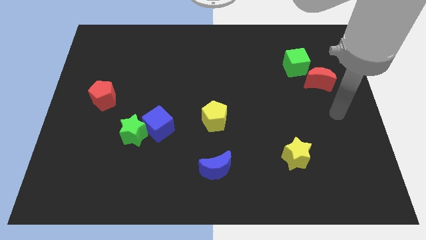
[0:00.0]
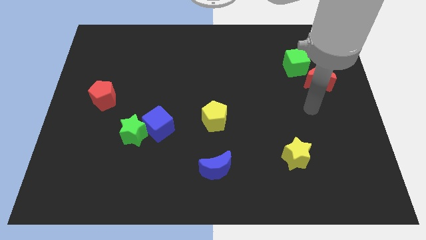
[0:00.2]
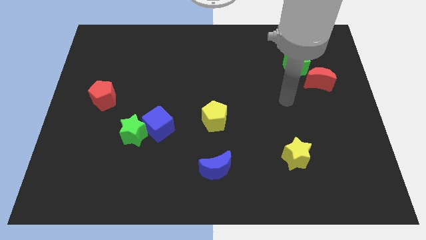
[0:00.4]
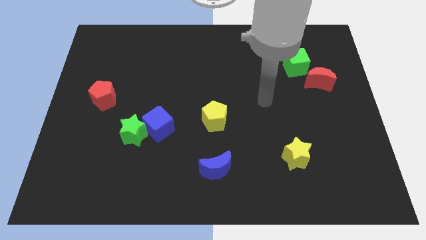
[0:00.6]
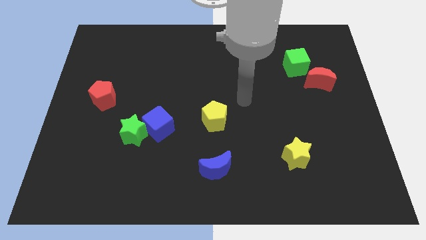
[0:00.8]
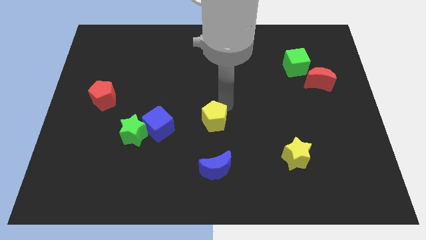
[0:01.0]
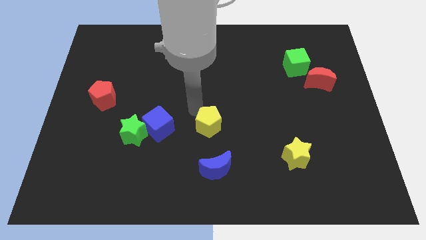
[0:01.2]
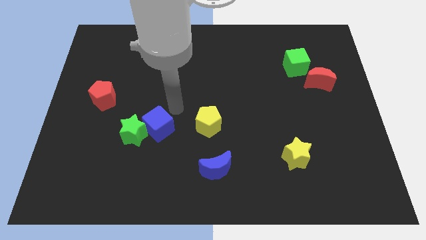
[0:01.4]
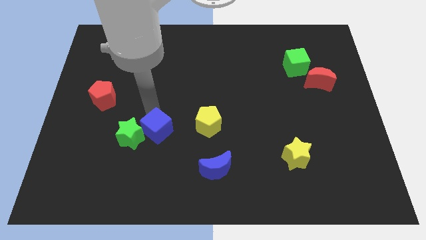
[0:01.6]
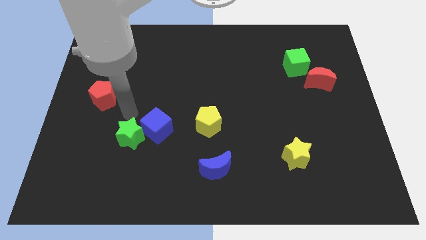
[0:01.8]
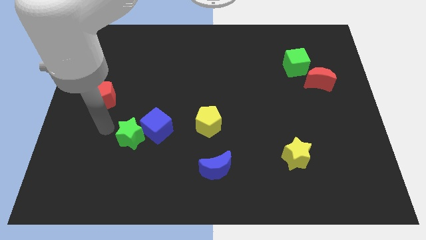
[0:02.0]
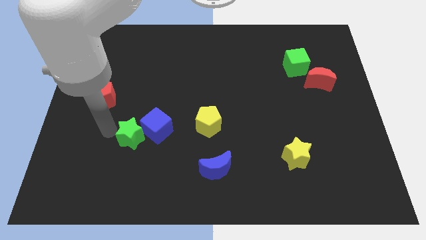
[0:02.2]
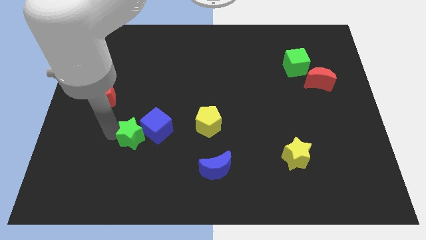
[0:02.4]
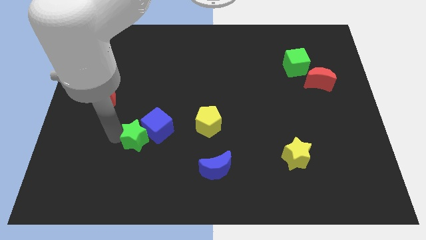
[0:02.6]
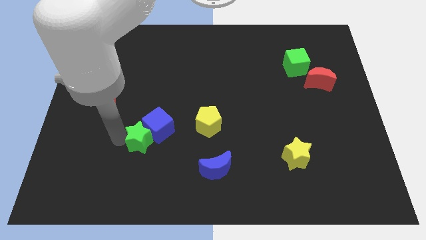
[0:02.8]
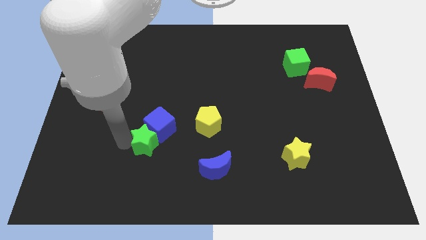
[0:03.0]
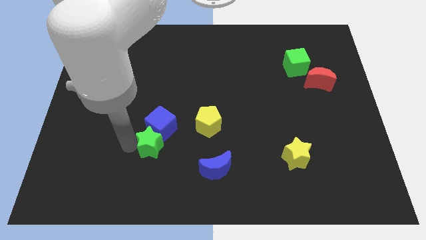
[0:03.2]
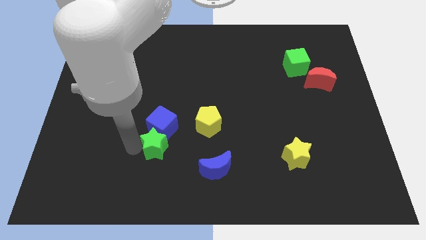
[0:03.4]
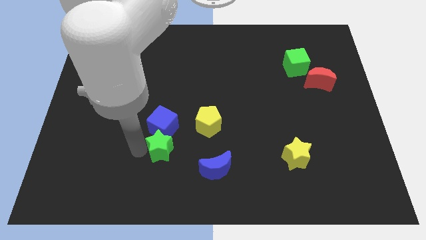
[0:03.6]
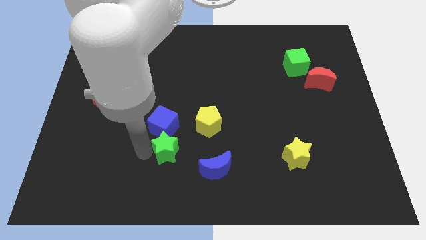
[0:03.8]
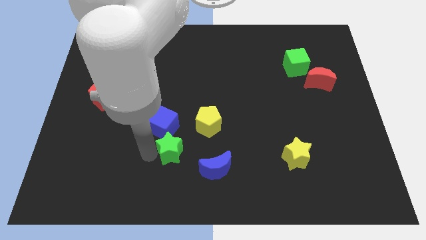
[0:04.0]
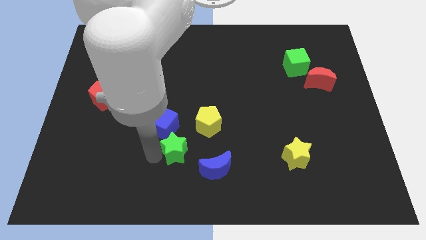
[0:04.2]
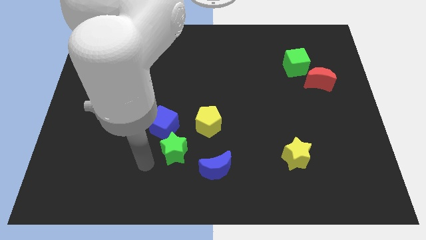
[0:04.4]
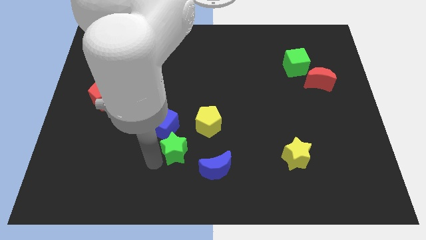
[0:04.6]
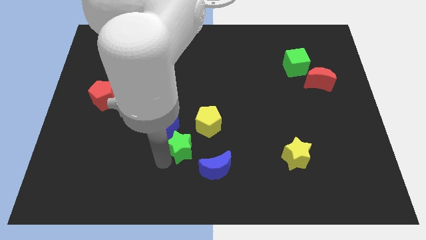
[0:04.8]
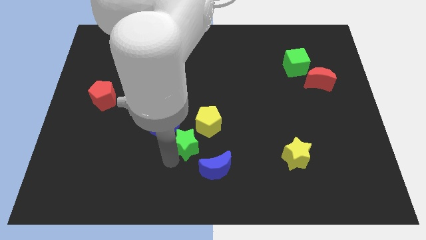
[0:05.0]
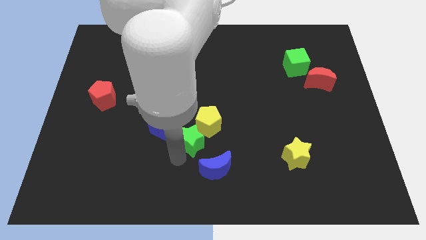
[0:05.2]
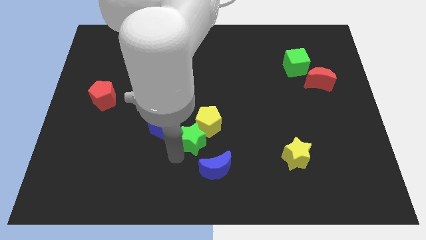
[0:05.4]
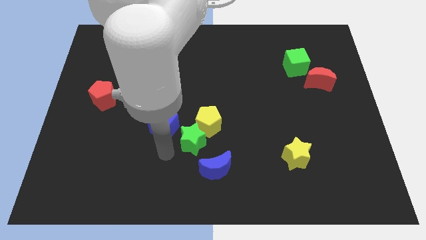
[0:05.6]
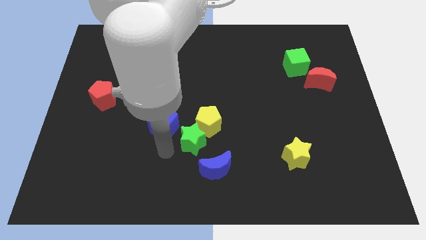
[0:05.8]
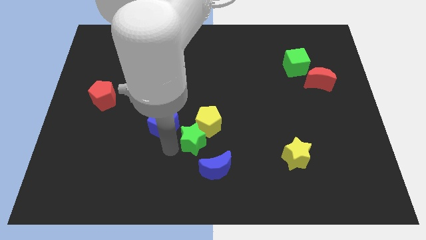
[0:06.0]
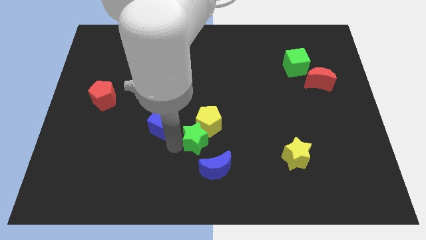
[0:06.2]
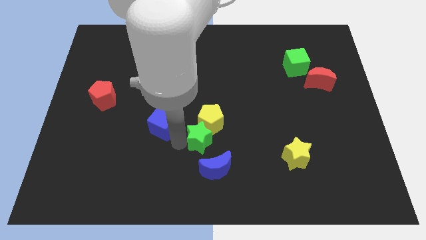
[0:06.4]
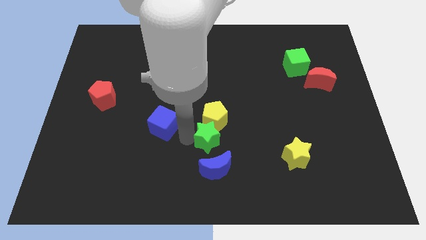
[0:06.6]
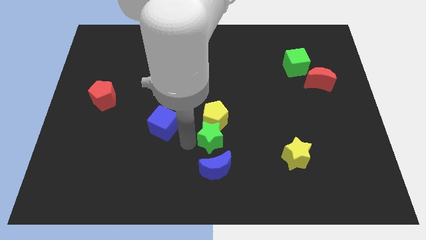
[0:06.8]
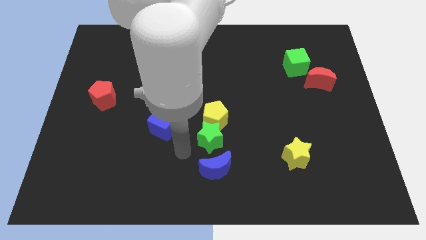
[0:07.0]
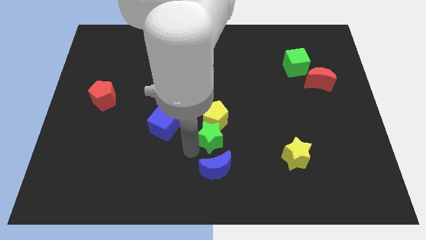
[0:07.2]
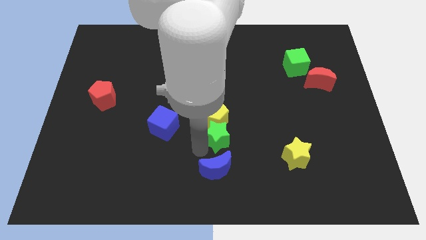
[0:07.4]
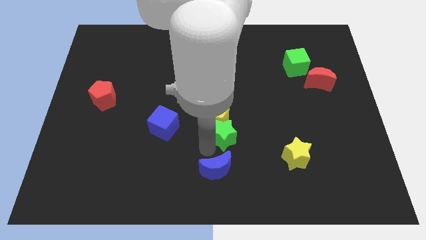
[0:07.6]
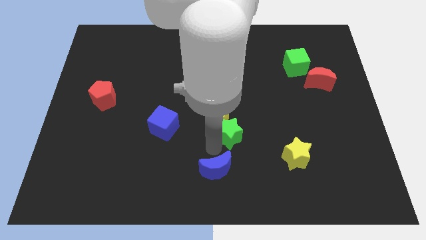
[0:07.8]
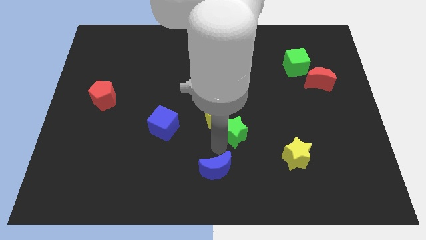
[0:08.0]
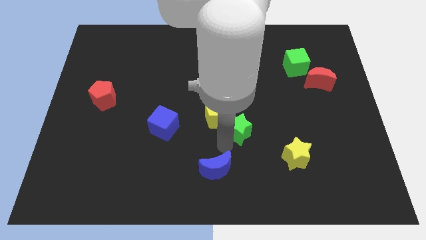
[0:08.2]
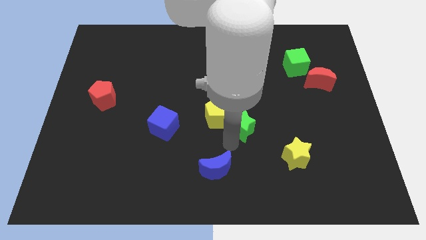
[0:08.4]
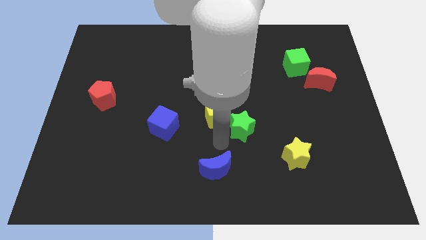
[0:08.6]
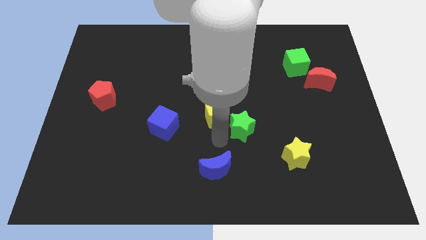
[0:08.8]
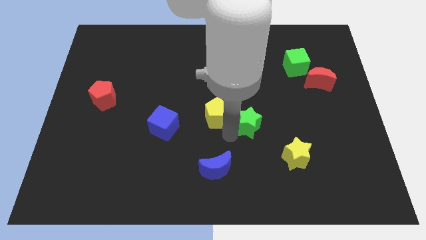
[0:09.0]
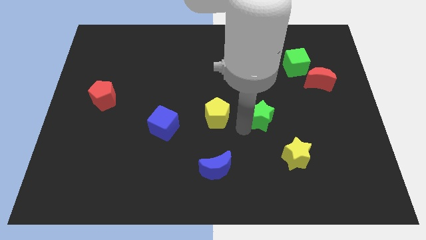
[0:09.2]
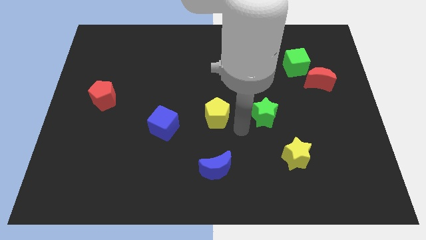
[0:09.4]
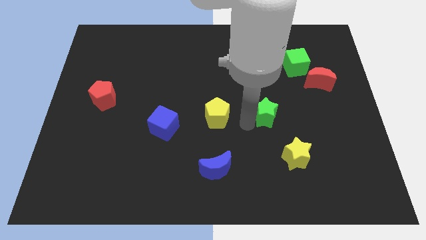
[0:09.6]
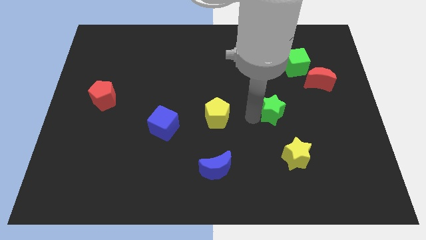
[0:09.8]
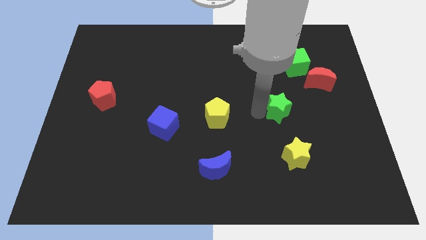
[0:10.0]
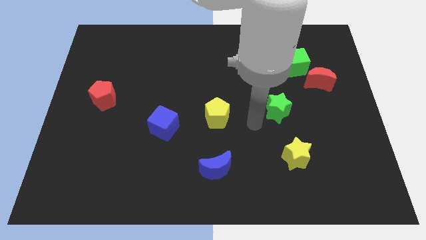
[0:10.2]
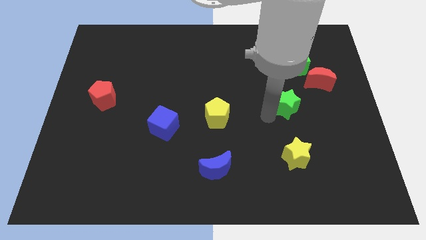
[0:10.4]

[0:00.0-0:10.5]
push the green star to the bottom of the green cube

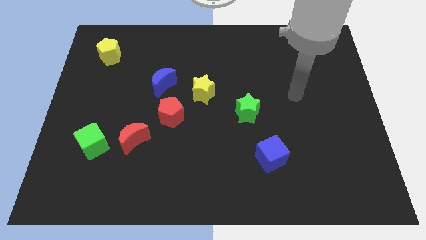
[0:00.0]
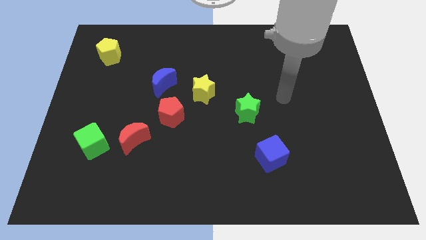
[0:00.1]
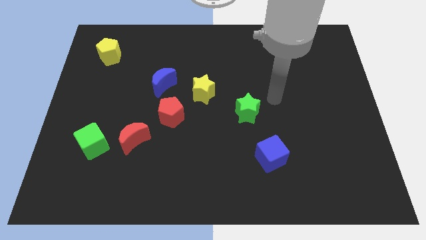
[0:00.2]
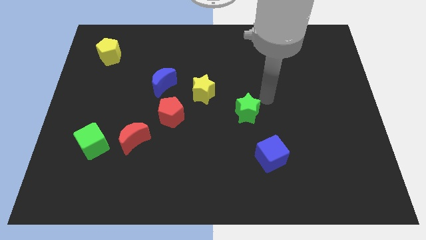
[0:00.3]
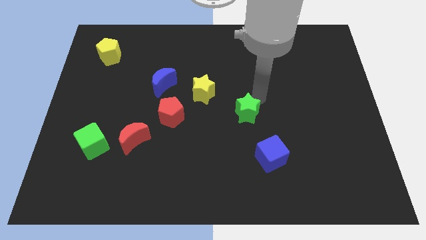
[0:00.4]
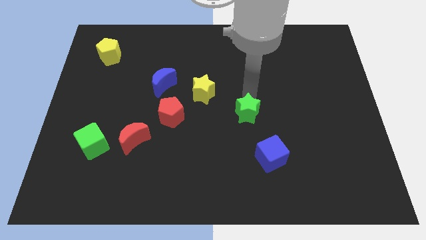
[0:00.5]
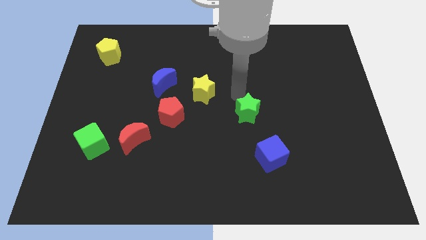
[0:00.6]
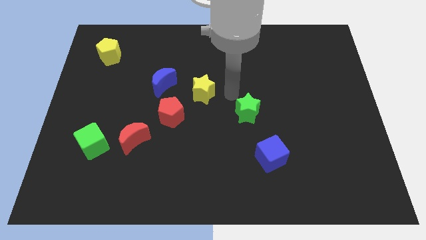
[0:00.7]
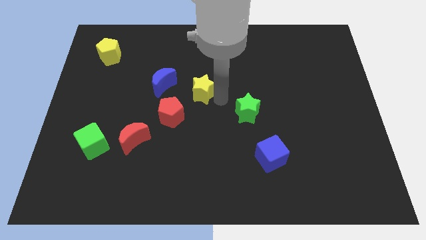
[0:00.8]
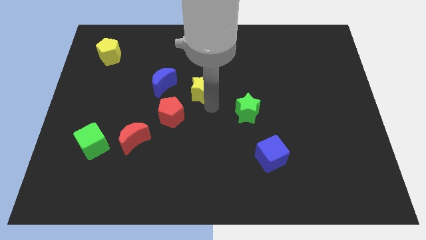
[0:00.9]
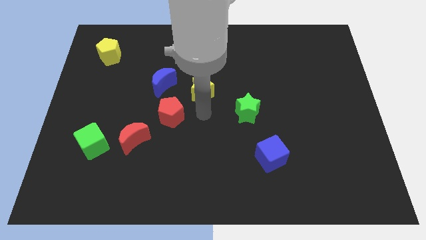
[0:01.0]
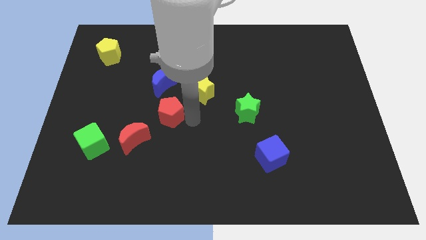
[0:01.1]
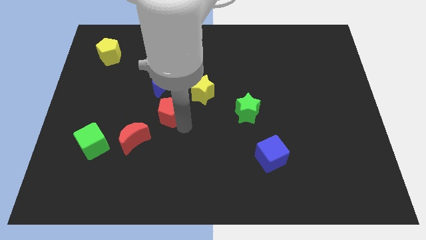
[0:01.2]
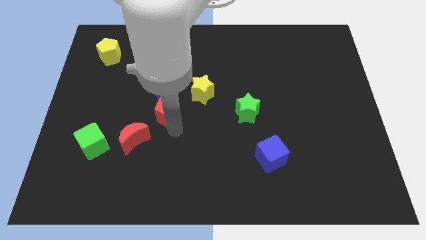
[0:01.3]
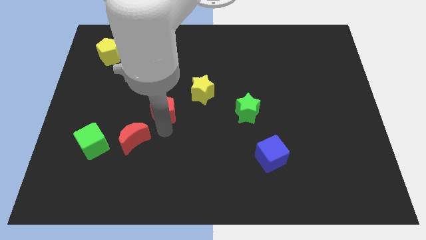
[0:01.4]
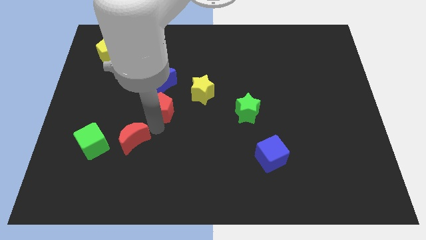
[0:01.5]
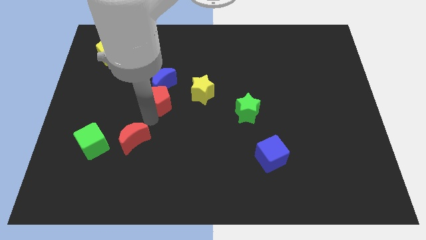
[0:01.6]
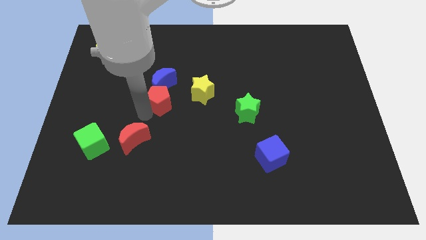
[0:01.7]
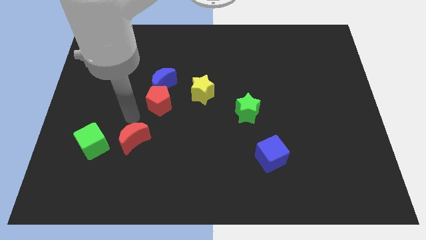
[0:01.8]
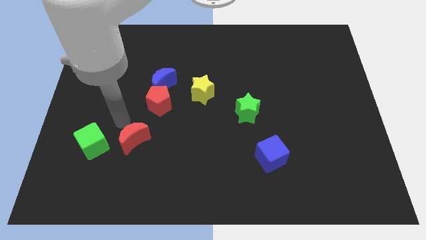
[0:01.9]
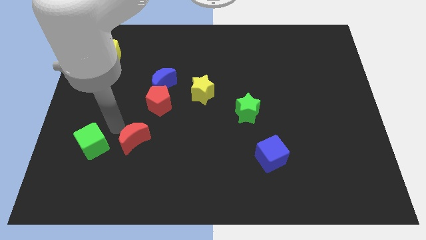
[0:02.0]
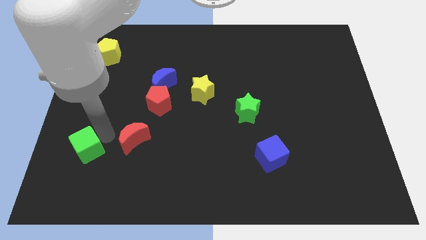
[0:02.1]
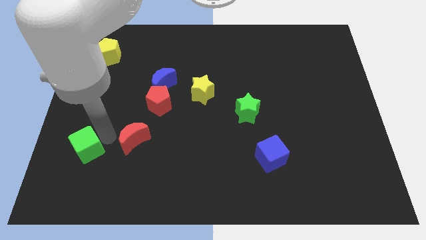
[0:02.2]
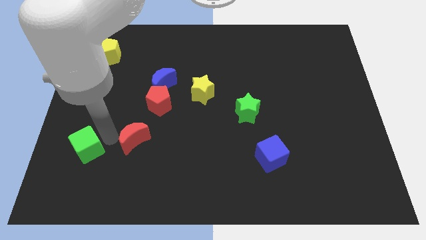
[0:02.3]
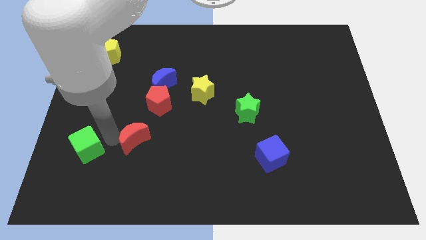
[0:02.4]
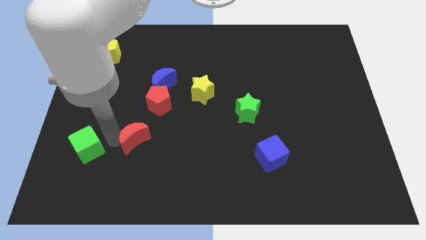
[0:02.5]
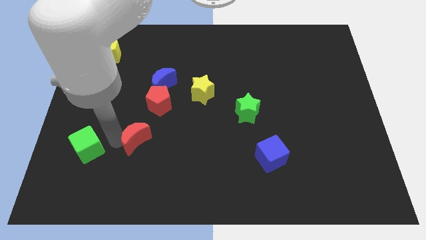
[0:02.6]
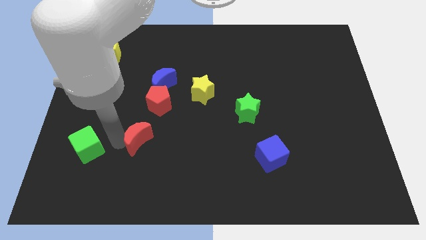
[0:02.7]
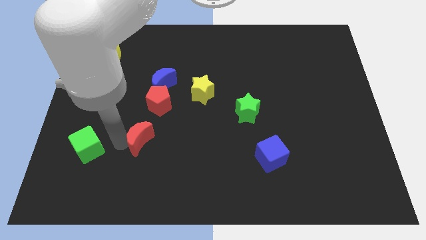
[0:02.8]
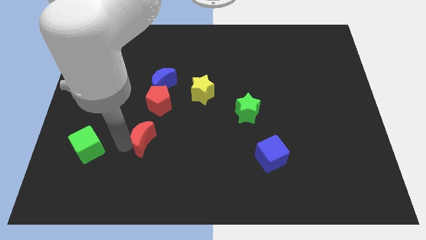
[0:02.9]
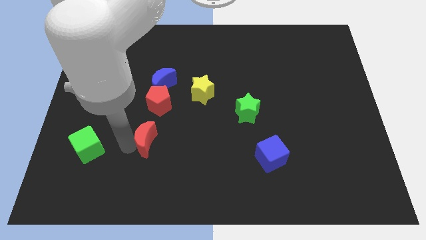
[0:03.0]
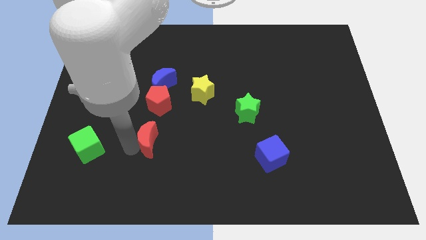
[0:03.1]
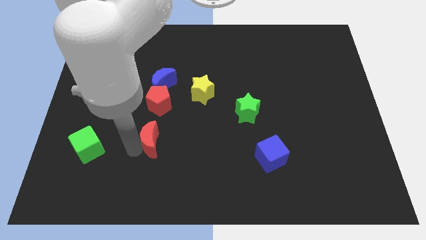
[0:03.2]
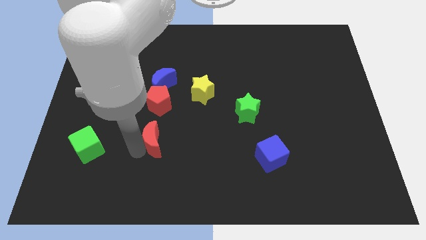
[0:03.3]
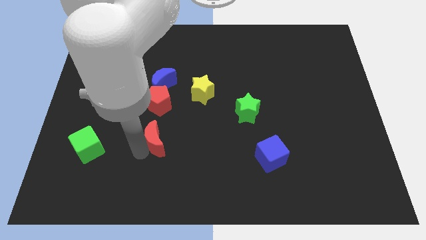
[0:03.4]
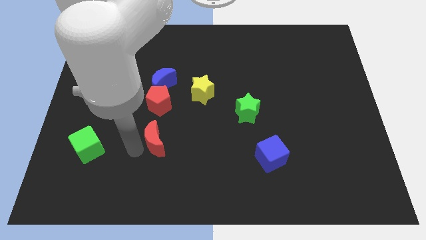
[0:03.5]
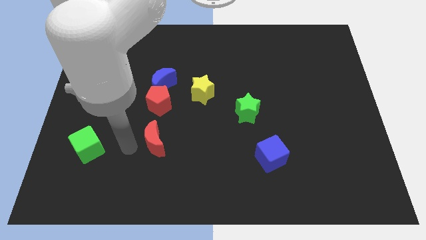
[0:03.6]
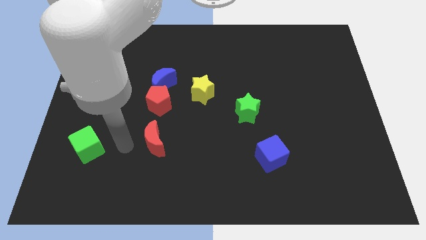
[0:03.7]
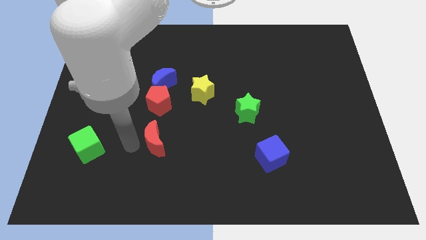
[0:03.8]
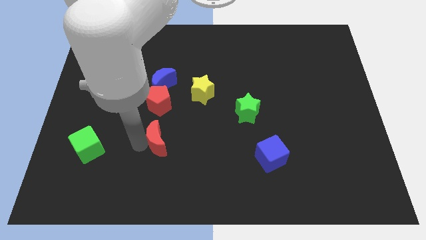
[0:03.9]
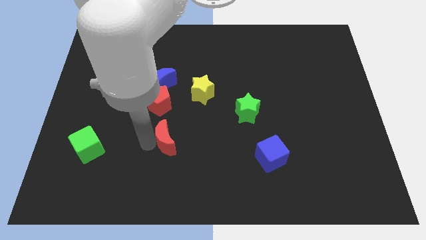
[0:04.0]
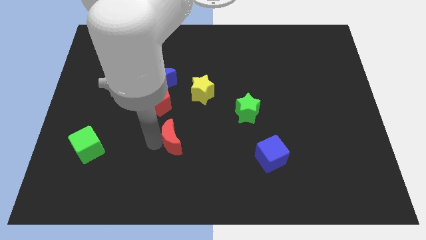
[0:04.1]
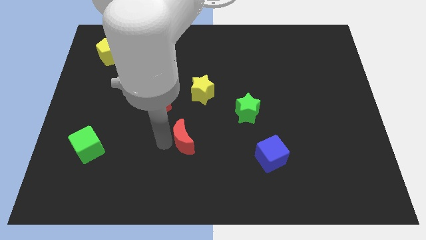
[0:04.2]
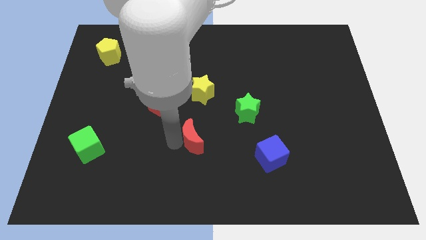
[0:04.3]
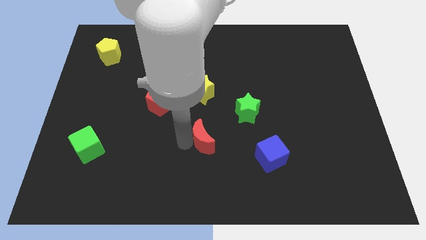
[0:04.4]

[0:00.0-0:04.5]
move the red moon to the bottom left of the green star
